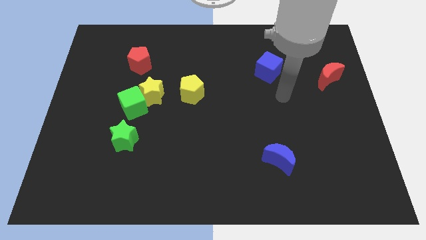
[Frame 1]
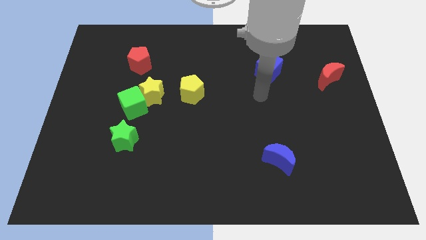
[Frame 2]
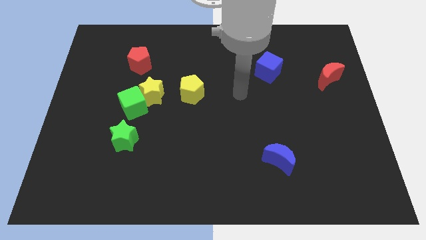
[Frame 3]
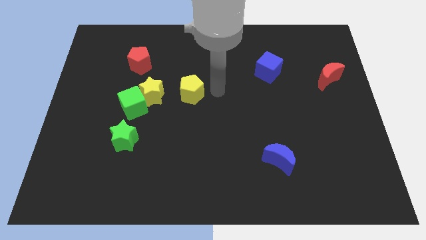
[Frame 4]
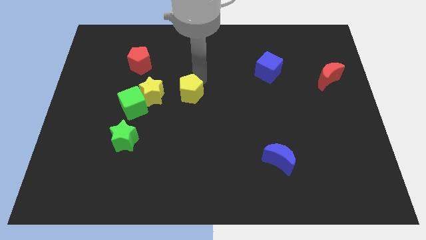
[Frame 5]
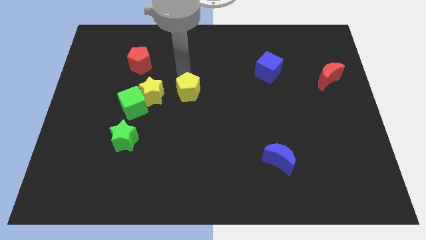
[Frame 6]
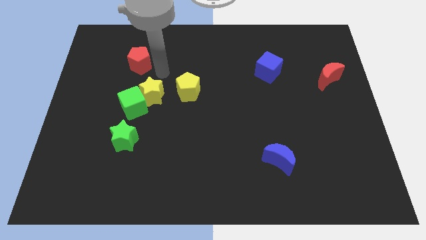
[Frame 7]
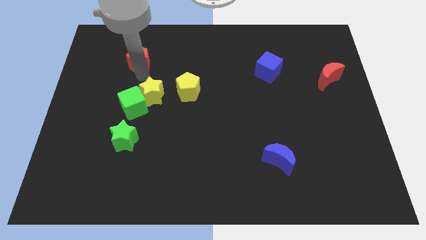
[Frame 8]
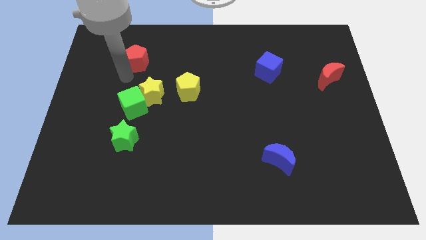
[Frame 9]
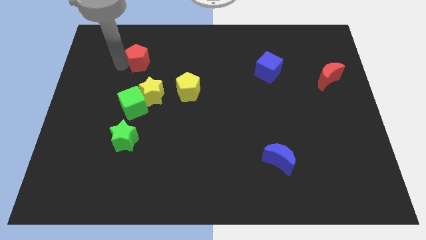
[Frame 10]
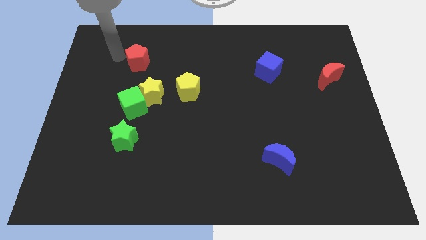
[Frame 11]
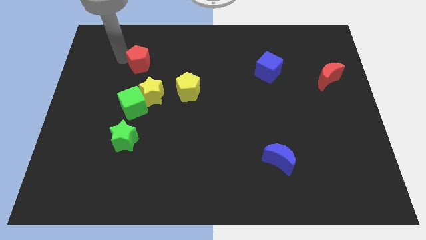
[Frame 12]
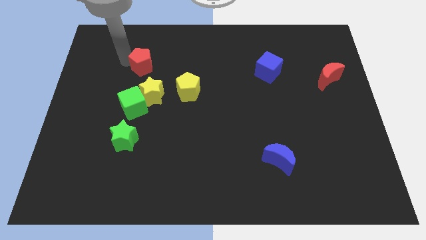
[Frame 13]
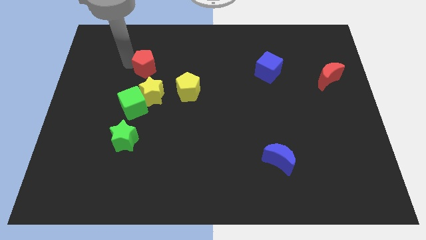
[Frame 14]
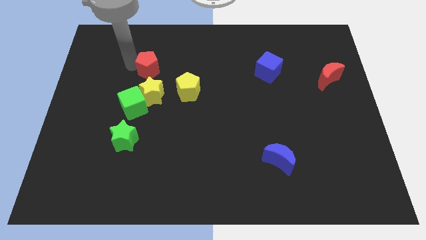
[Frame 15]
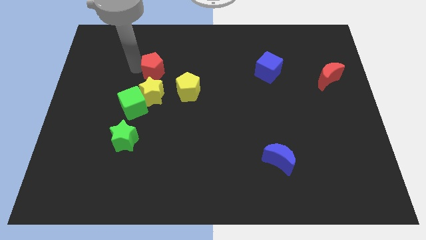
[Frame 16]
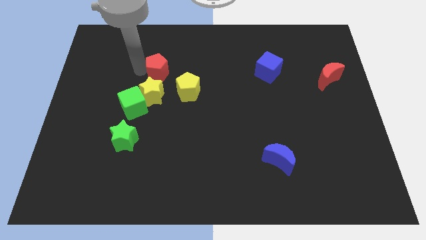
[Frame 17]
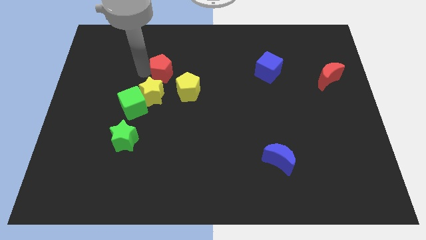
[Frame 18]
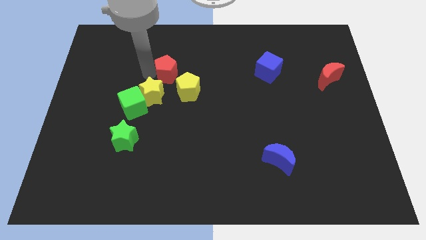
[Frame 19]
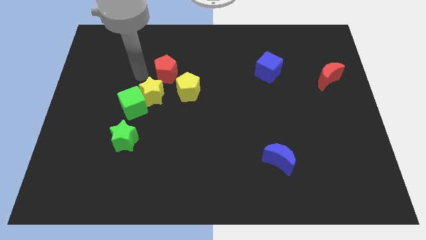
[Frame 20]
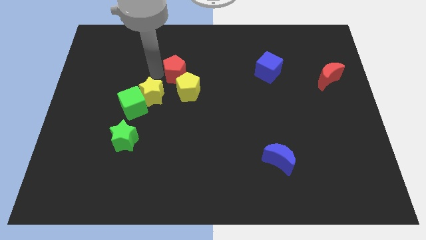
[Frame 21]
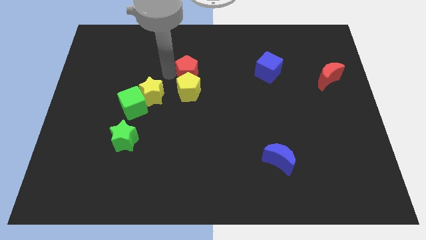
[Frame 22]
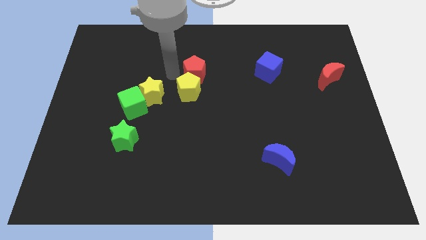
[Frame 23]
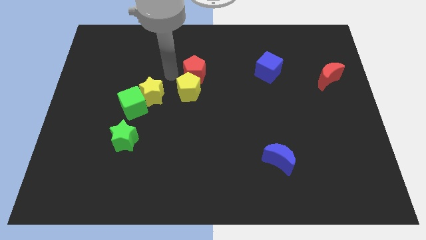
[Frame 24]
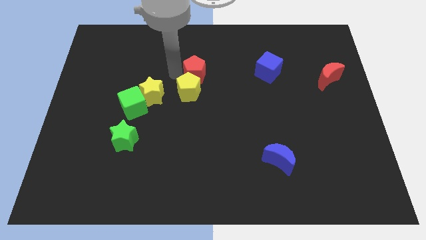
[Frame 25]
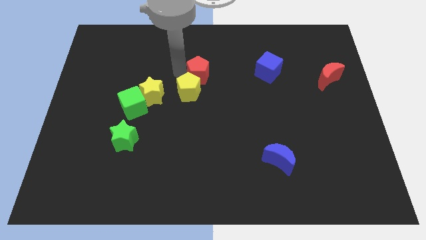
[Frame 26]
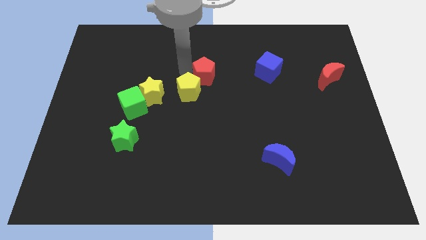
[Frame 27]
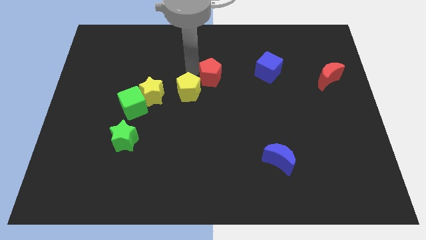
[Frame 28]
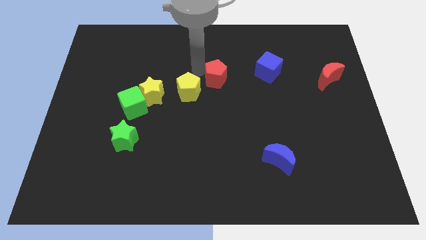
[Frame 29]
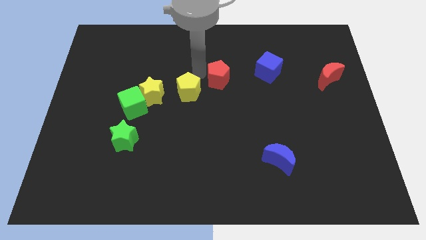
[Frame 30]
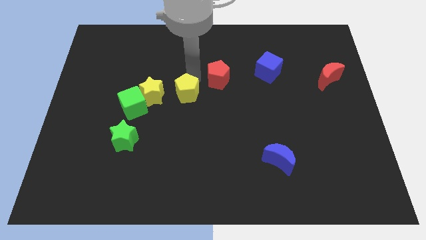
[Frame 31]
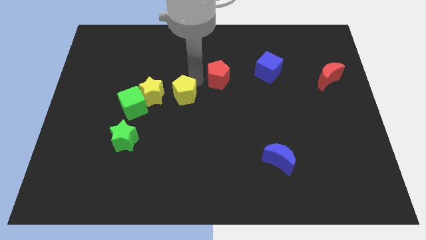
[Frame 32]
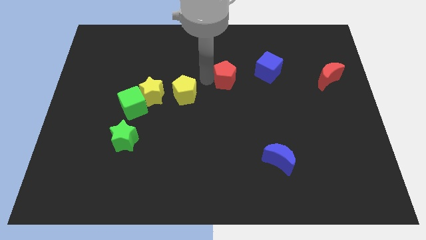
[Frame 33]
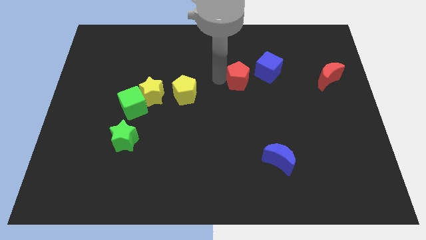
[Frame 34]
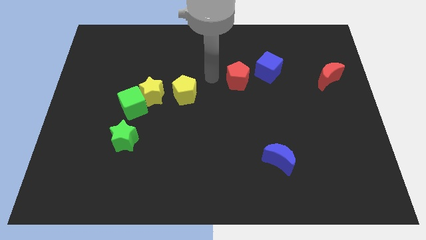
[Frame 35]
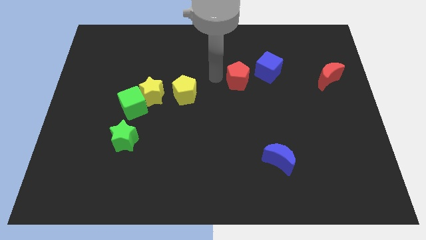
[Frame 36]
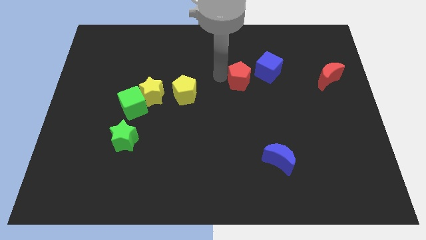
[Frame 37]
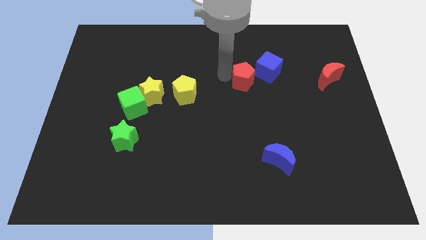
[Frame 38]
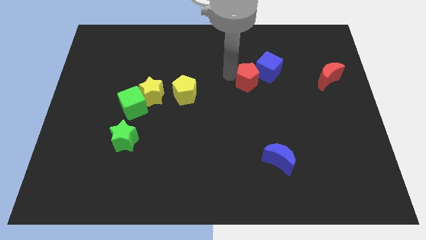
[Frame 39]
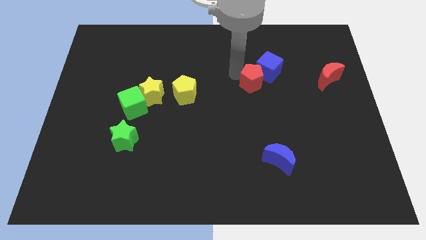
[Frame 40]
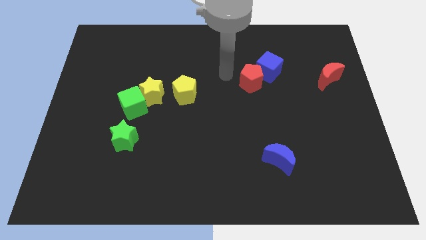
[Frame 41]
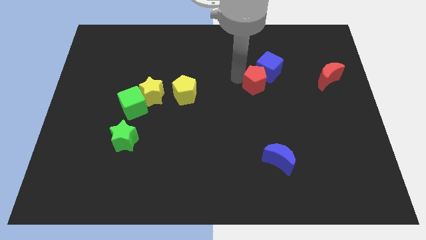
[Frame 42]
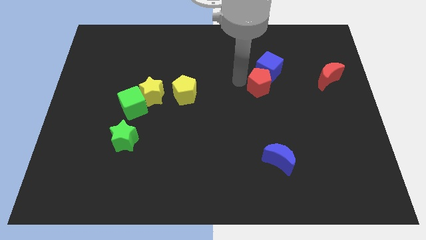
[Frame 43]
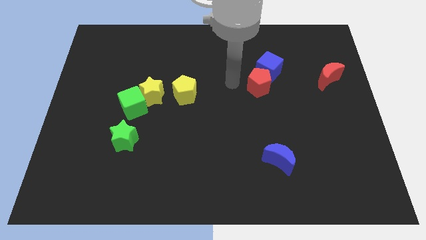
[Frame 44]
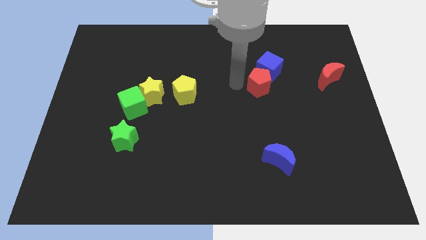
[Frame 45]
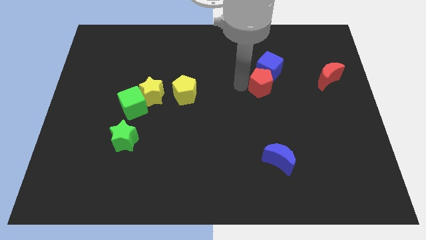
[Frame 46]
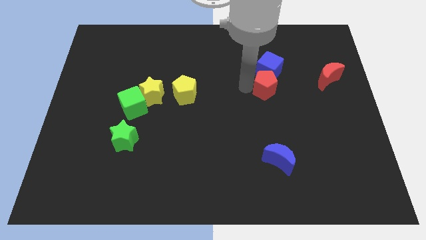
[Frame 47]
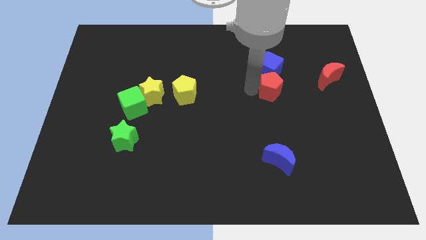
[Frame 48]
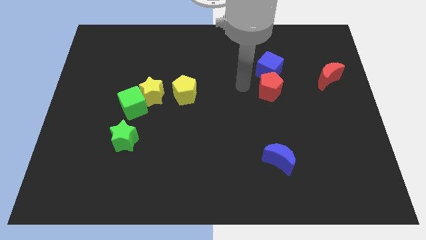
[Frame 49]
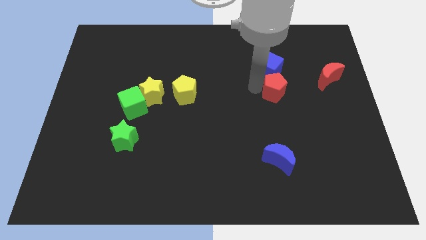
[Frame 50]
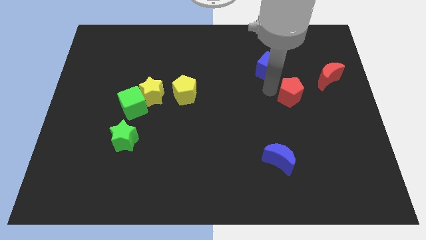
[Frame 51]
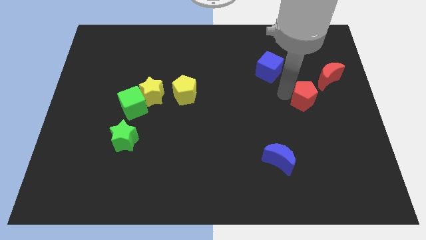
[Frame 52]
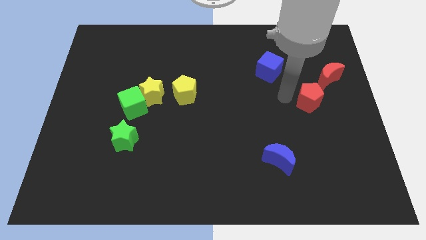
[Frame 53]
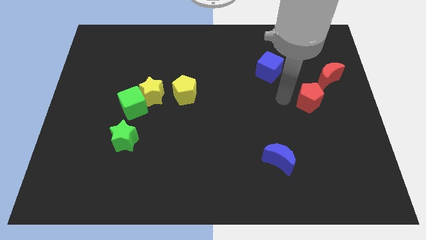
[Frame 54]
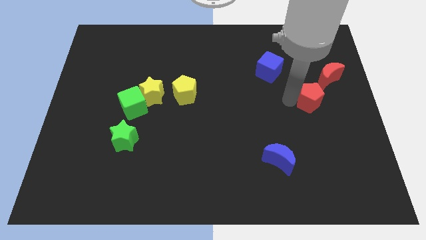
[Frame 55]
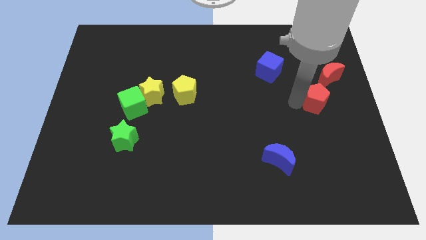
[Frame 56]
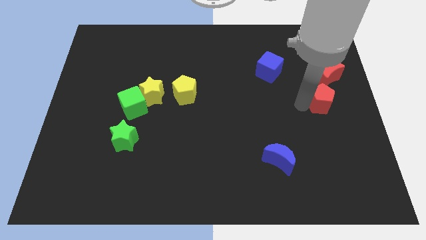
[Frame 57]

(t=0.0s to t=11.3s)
slide the red pentagon to the right side of the board
